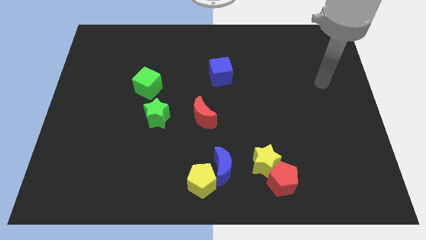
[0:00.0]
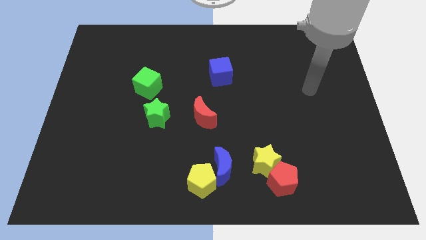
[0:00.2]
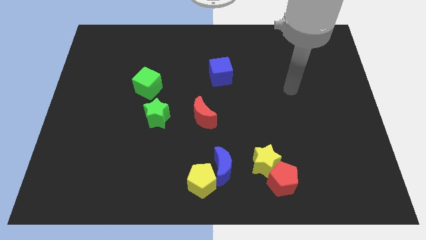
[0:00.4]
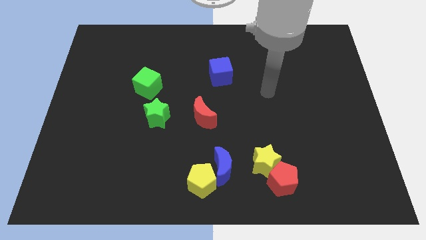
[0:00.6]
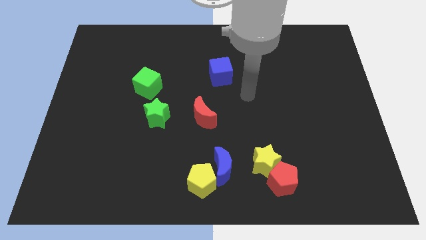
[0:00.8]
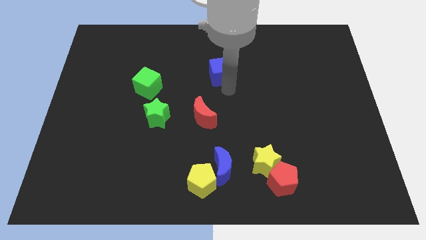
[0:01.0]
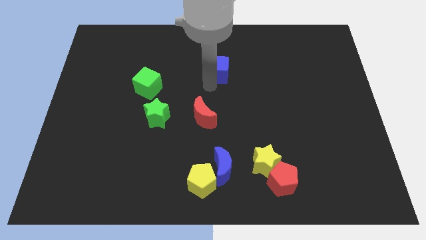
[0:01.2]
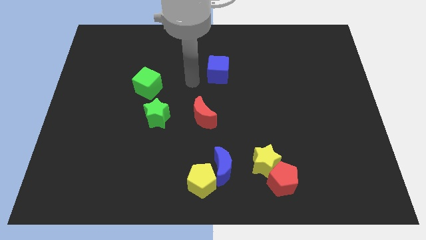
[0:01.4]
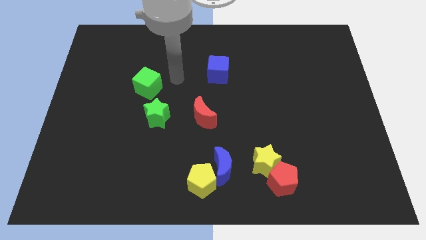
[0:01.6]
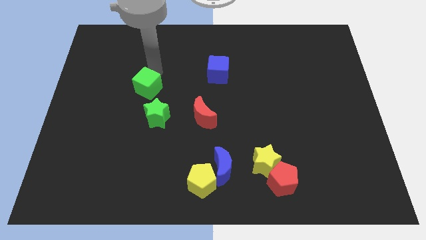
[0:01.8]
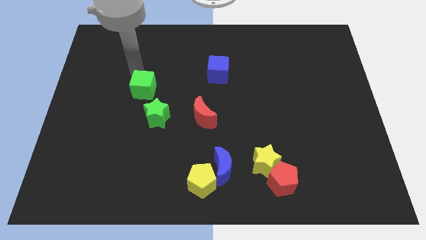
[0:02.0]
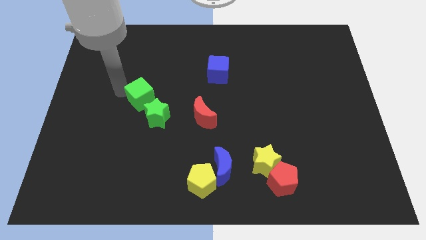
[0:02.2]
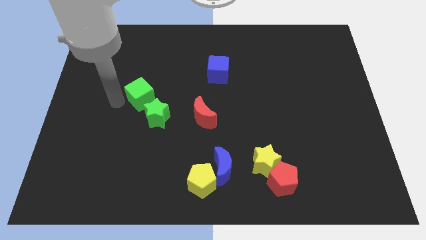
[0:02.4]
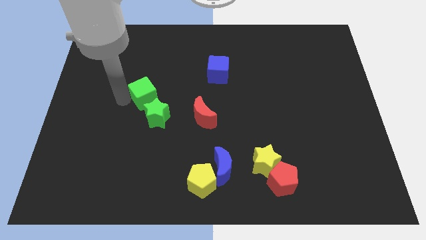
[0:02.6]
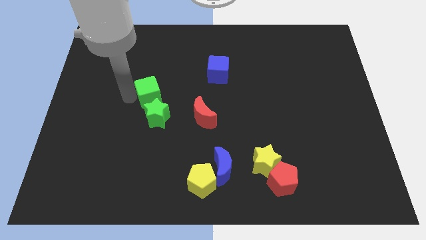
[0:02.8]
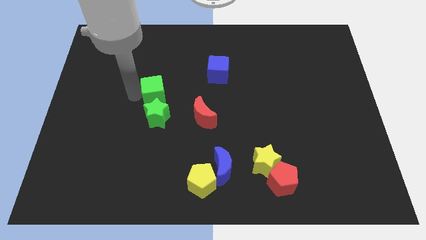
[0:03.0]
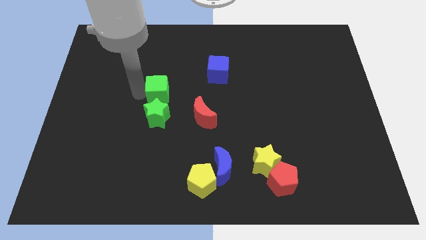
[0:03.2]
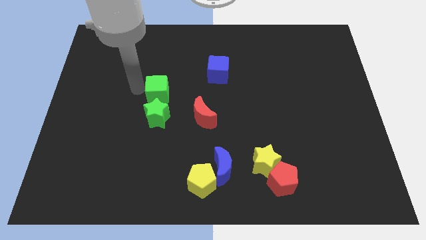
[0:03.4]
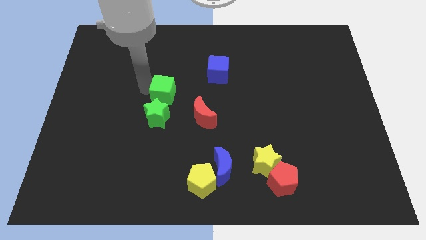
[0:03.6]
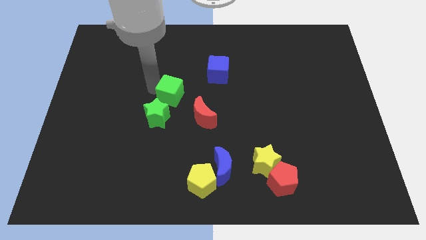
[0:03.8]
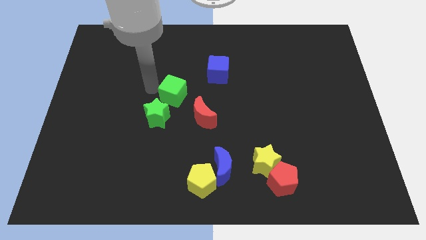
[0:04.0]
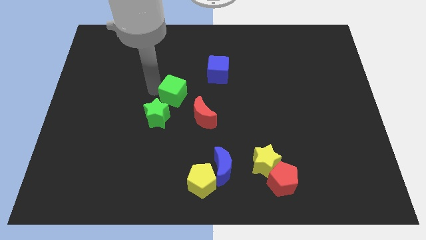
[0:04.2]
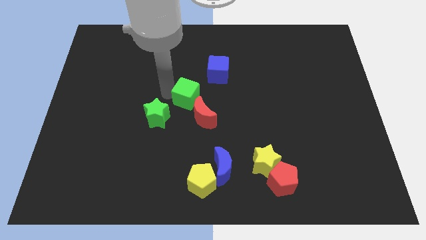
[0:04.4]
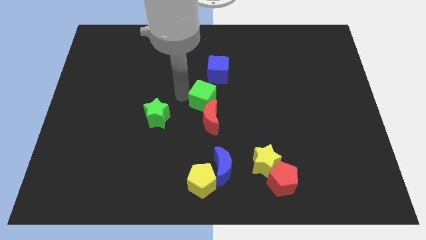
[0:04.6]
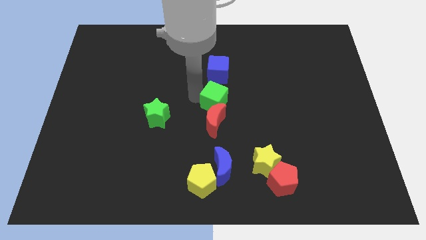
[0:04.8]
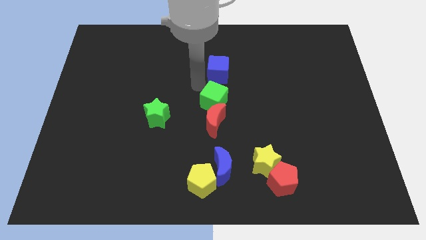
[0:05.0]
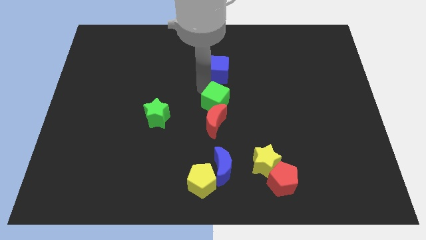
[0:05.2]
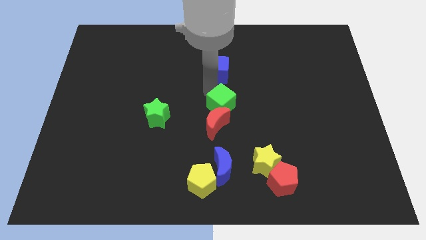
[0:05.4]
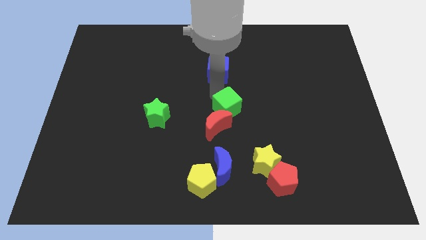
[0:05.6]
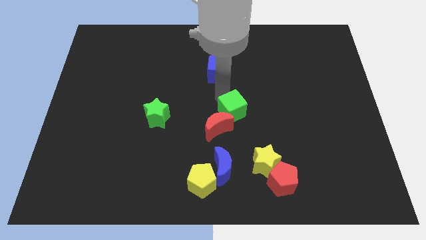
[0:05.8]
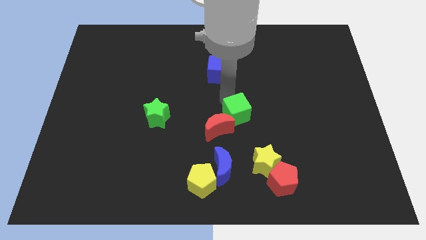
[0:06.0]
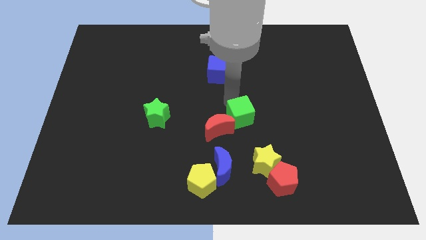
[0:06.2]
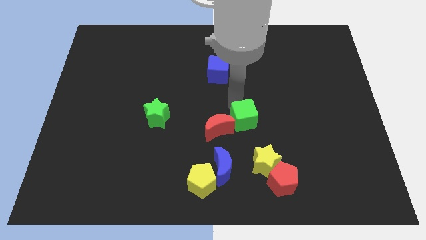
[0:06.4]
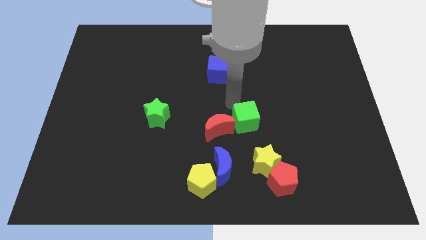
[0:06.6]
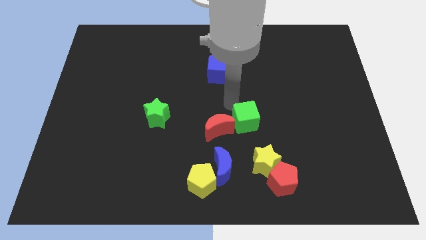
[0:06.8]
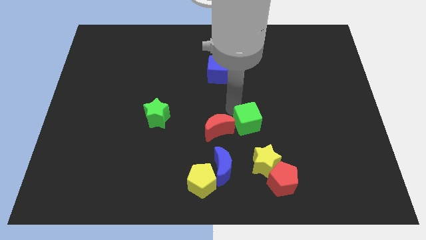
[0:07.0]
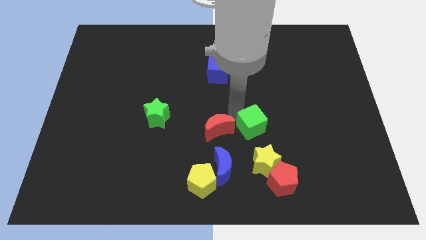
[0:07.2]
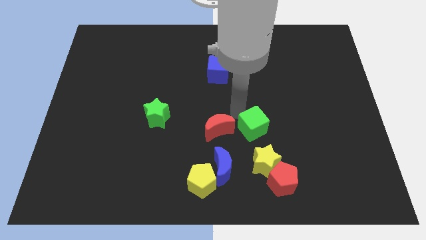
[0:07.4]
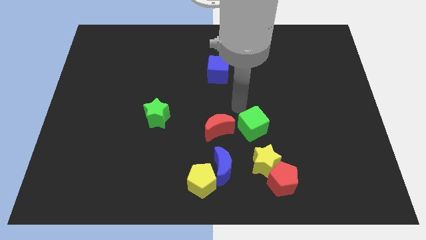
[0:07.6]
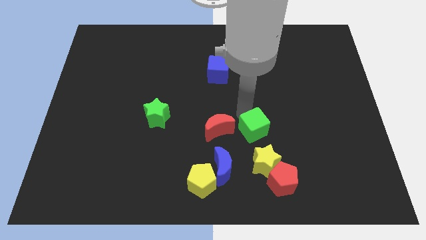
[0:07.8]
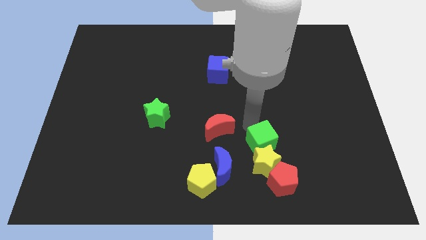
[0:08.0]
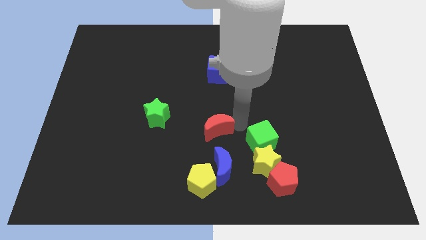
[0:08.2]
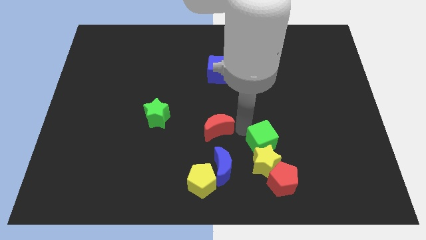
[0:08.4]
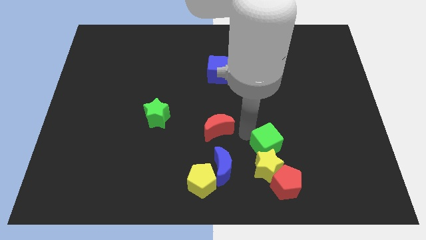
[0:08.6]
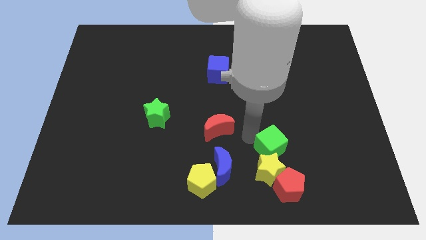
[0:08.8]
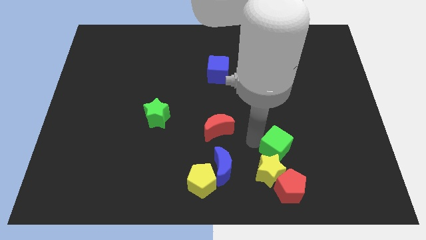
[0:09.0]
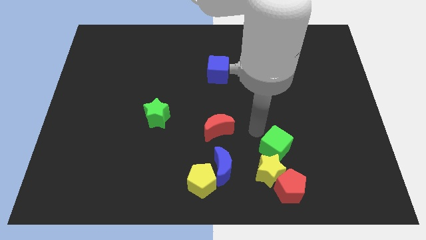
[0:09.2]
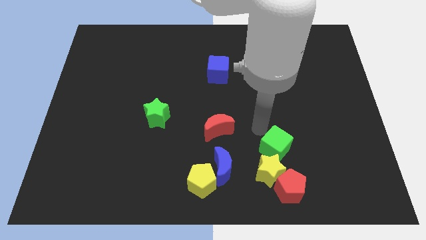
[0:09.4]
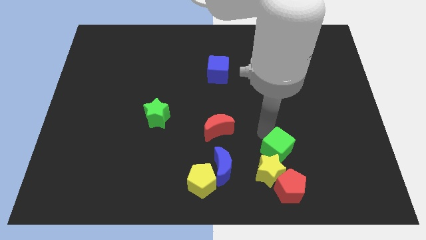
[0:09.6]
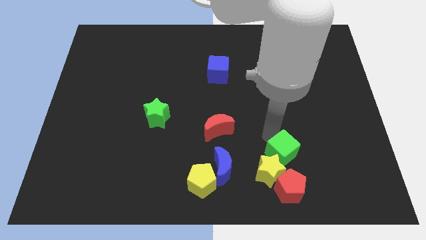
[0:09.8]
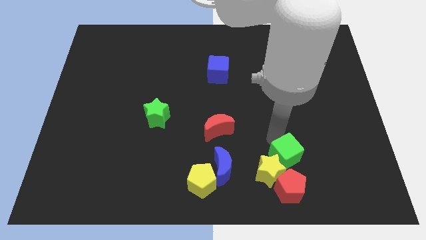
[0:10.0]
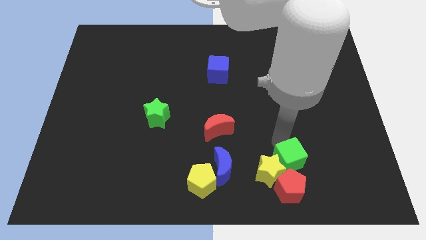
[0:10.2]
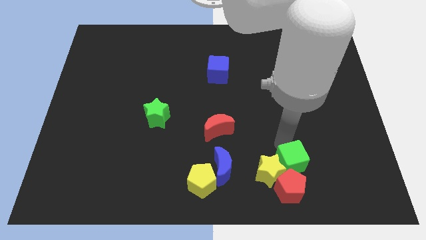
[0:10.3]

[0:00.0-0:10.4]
put the green cube close to the red pentagon

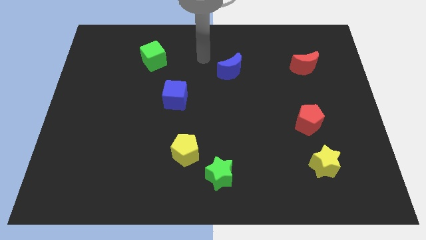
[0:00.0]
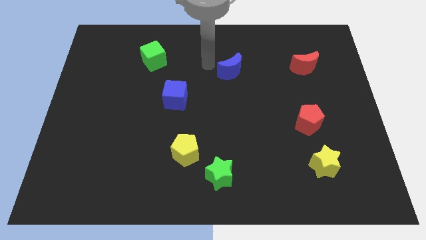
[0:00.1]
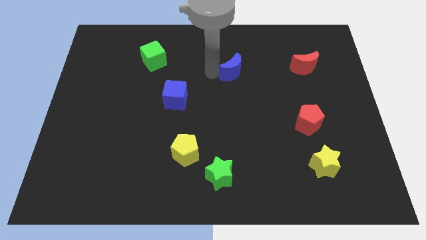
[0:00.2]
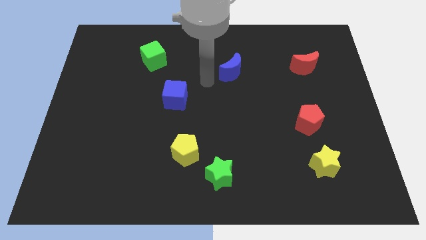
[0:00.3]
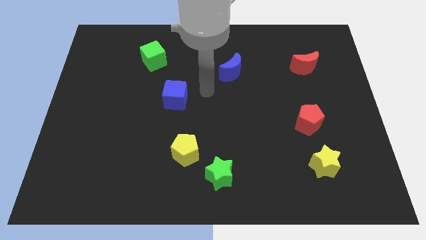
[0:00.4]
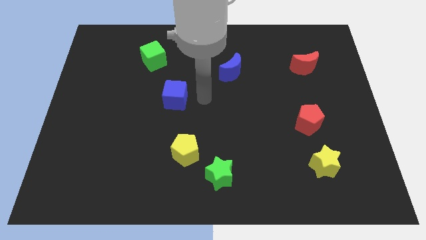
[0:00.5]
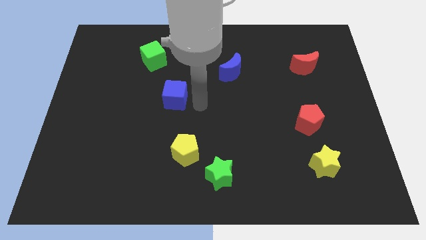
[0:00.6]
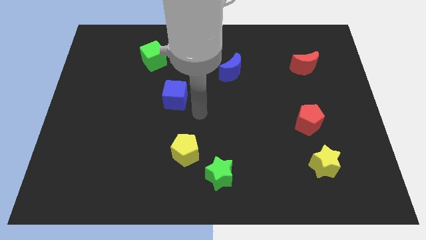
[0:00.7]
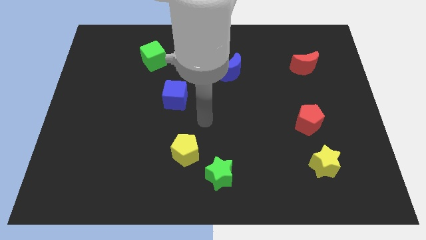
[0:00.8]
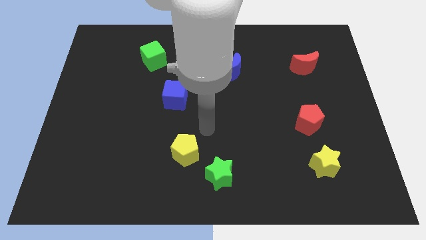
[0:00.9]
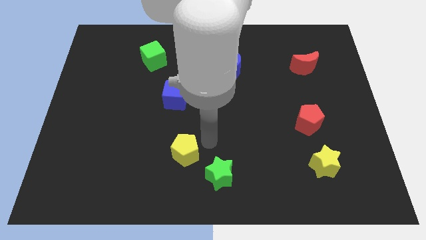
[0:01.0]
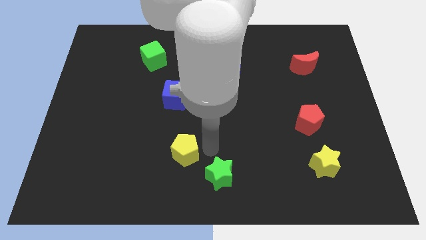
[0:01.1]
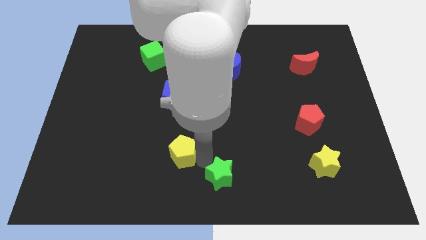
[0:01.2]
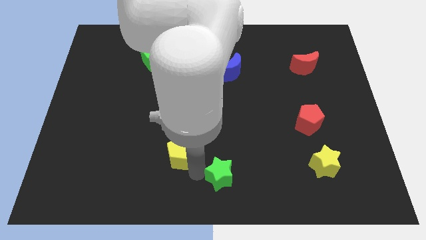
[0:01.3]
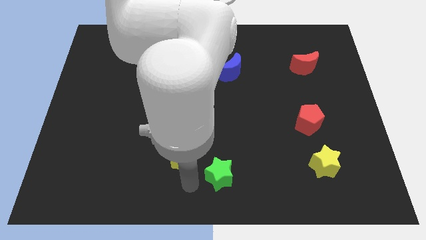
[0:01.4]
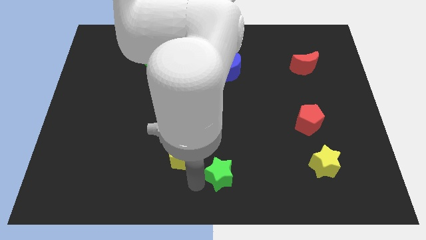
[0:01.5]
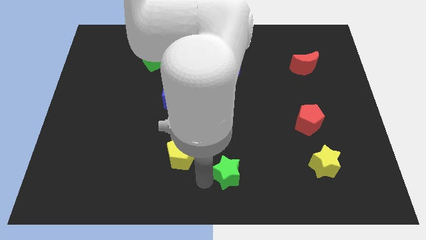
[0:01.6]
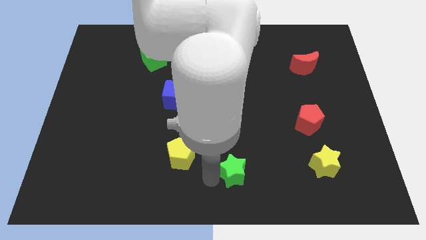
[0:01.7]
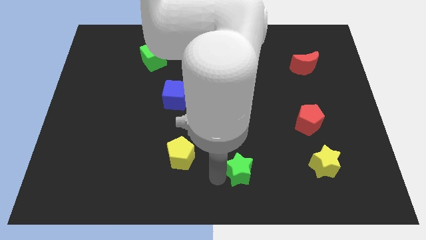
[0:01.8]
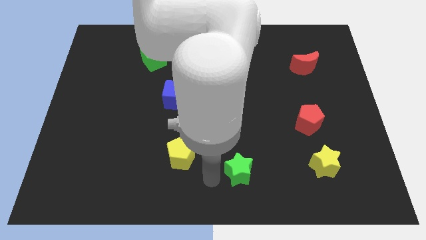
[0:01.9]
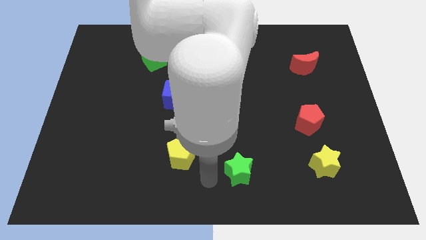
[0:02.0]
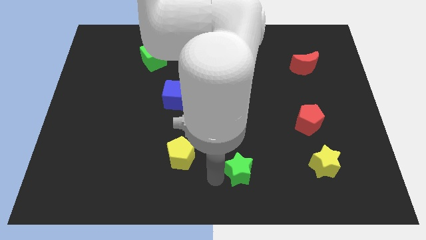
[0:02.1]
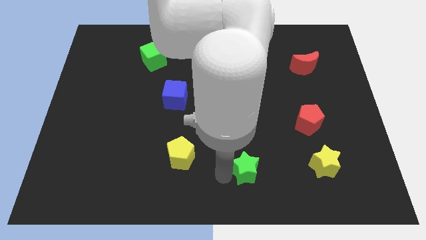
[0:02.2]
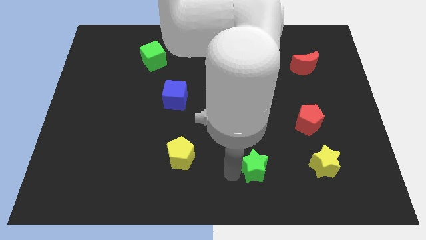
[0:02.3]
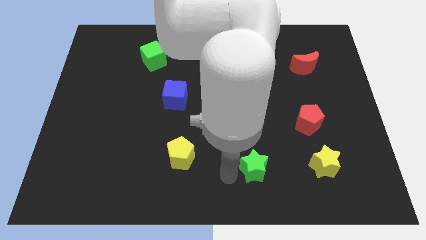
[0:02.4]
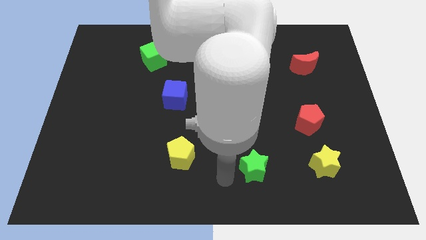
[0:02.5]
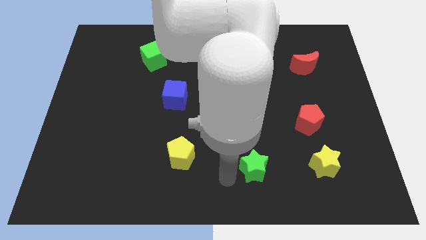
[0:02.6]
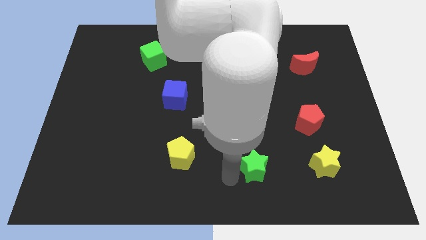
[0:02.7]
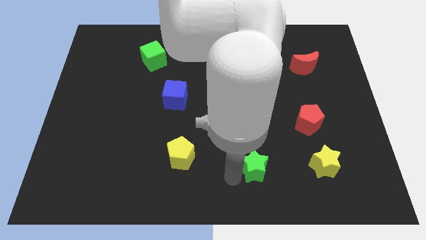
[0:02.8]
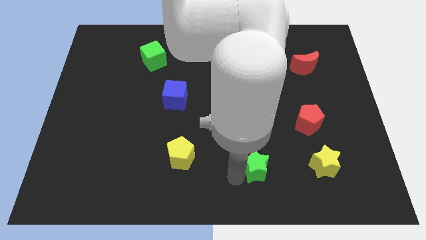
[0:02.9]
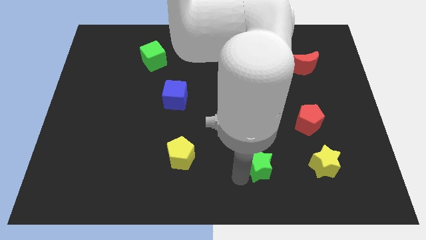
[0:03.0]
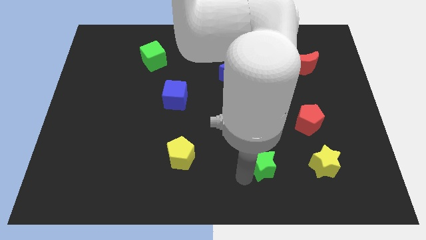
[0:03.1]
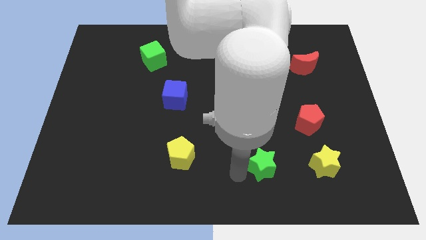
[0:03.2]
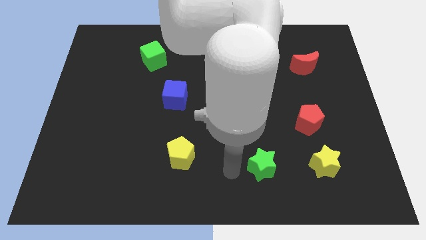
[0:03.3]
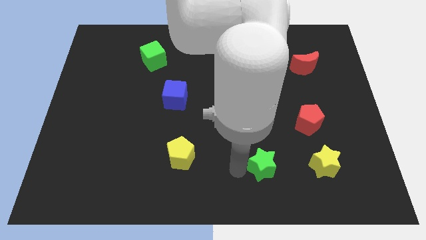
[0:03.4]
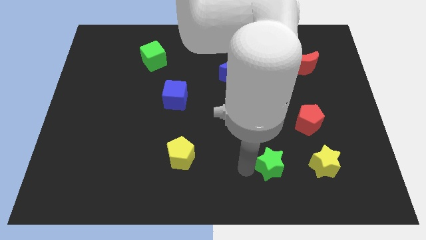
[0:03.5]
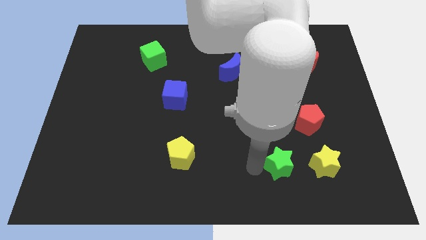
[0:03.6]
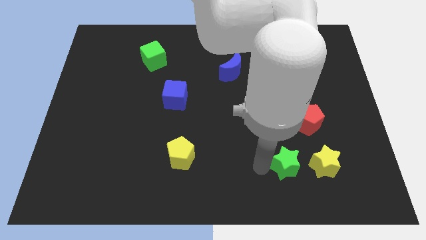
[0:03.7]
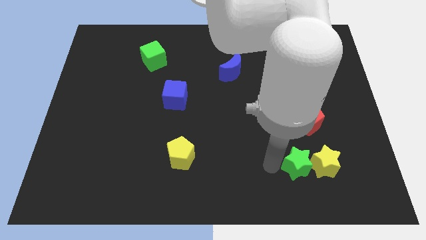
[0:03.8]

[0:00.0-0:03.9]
put the green star close to the yellow star
